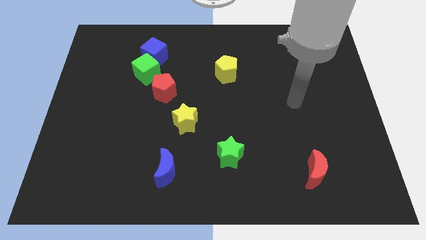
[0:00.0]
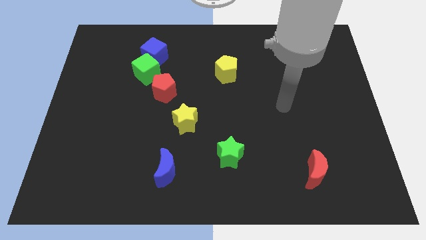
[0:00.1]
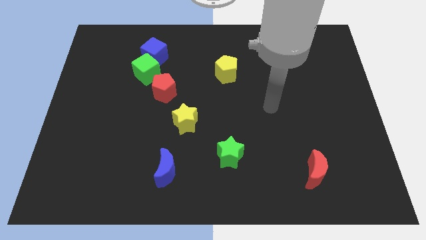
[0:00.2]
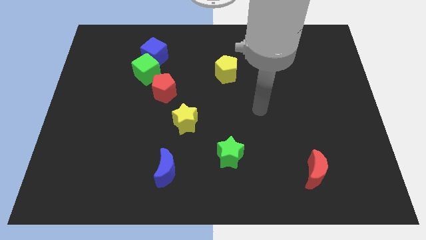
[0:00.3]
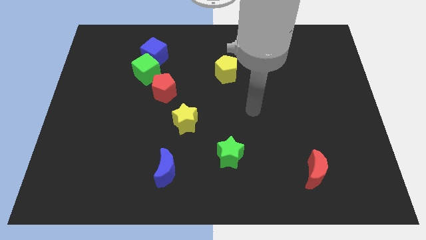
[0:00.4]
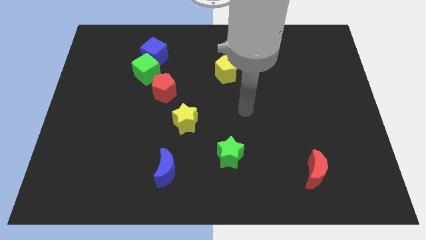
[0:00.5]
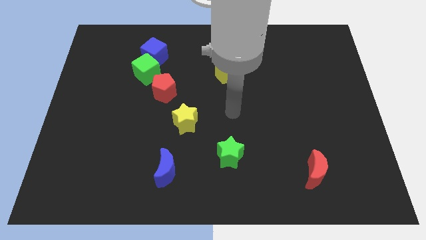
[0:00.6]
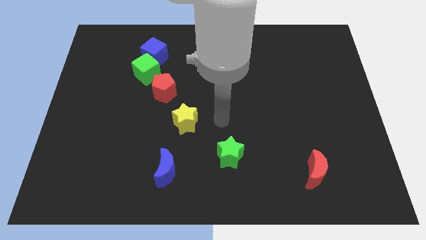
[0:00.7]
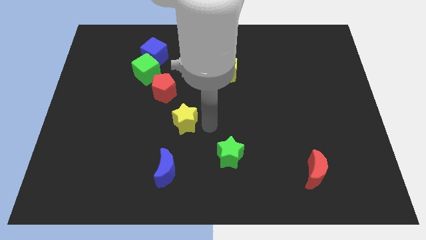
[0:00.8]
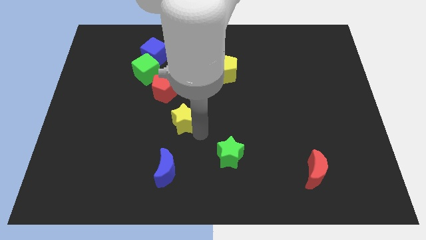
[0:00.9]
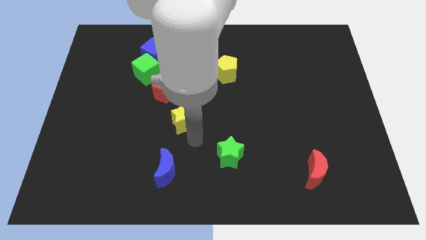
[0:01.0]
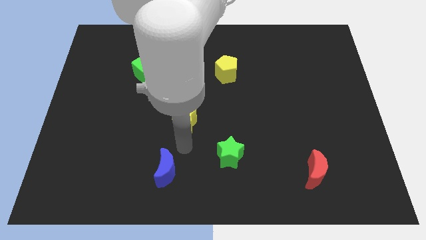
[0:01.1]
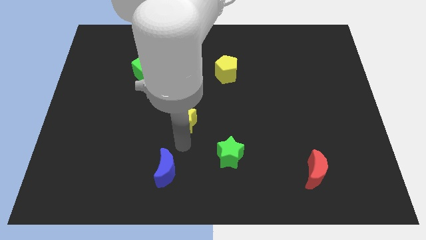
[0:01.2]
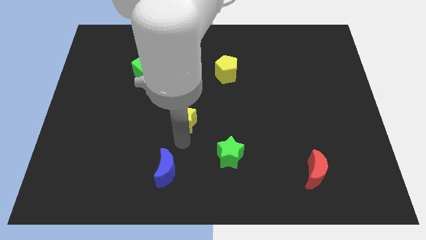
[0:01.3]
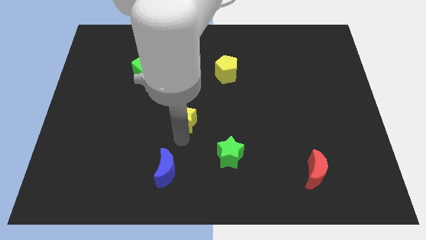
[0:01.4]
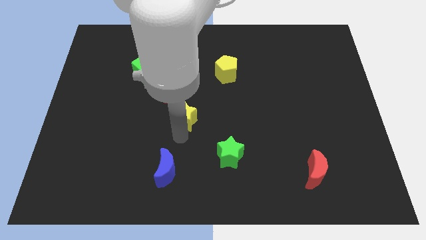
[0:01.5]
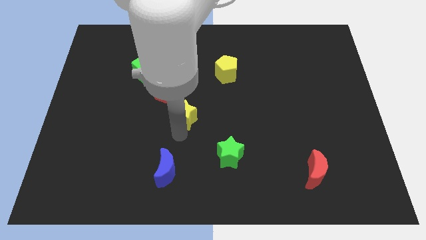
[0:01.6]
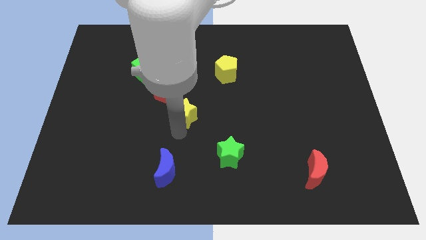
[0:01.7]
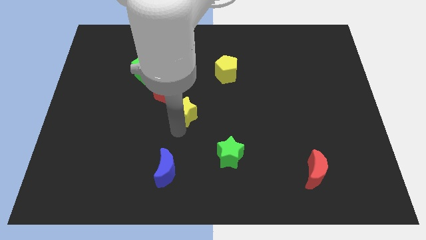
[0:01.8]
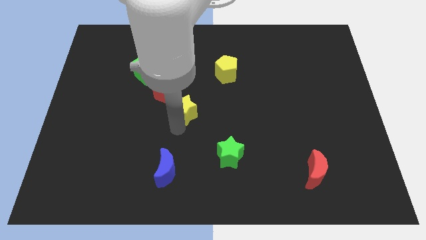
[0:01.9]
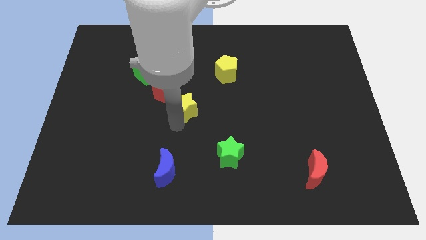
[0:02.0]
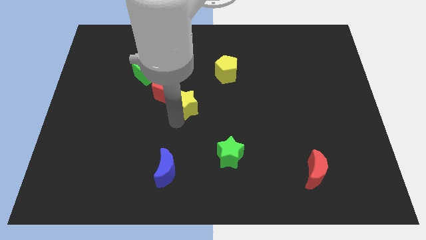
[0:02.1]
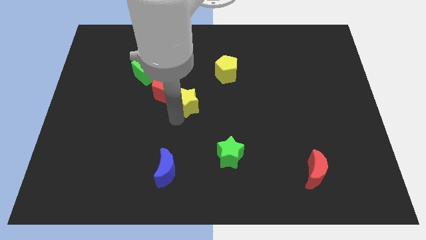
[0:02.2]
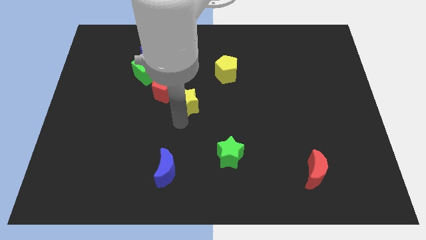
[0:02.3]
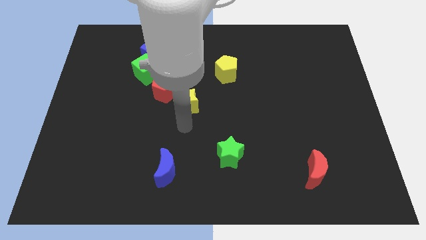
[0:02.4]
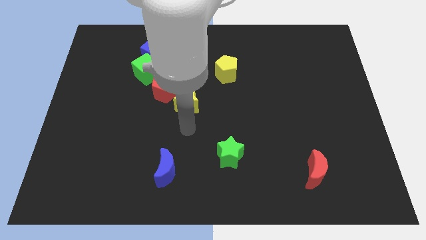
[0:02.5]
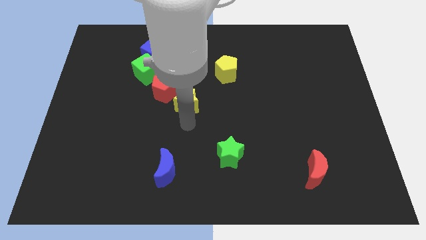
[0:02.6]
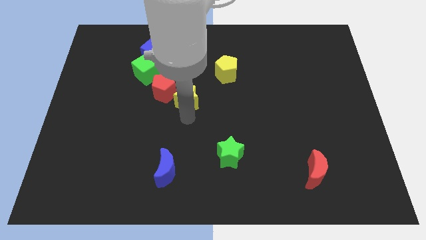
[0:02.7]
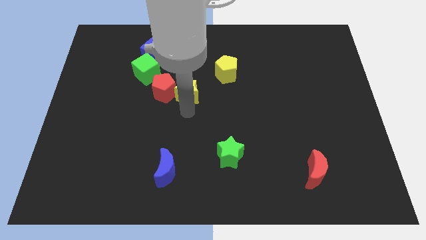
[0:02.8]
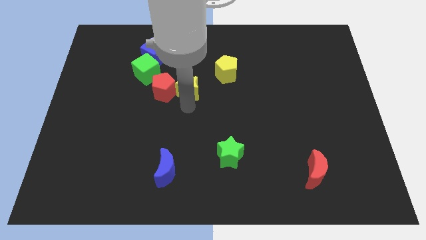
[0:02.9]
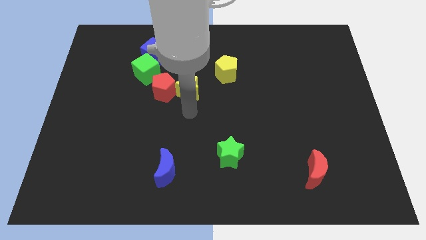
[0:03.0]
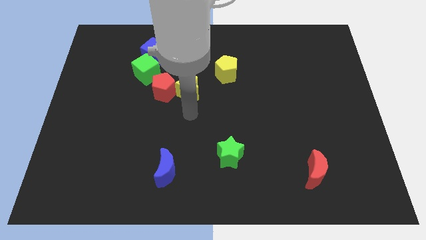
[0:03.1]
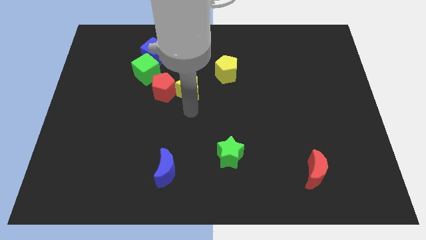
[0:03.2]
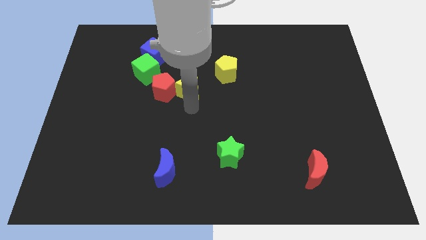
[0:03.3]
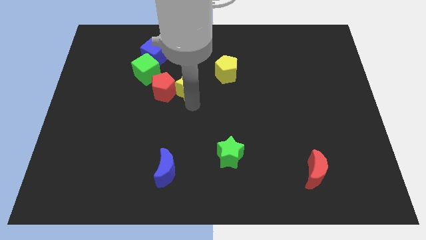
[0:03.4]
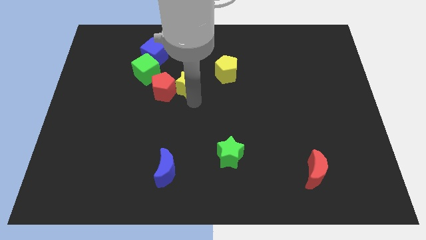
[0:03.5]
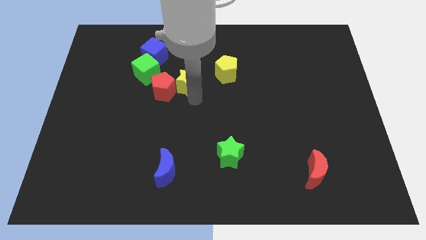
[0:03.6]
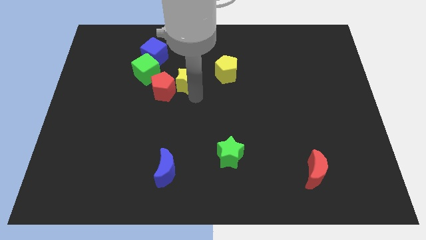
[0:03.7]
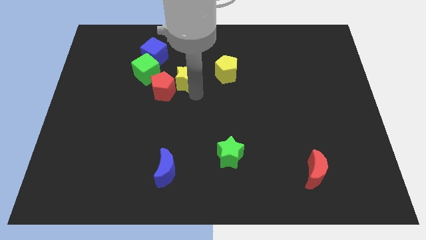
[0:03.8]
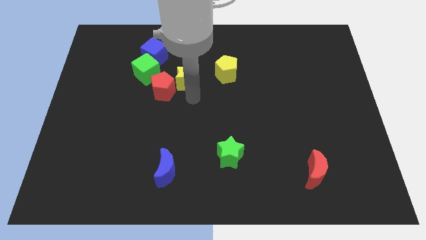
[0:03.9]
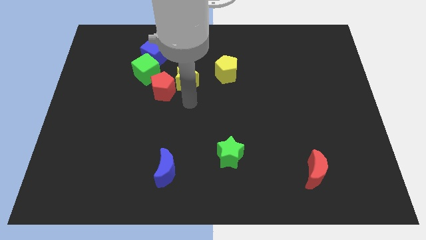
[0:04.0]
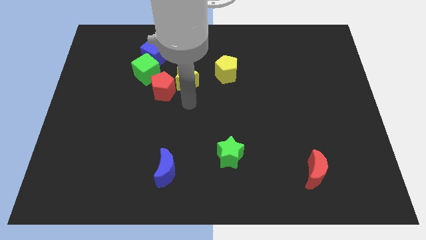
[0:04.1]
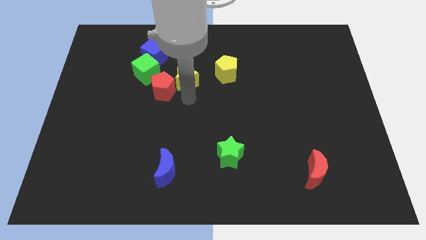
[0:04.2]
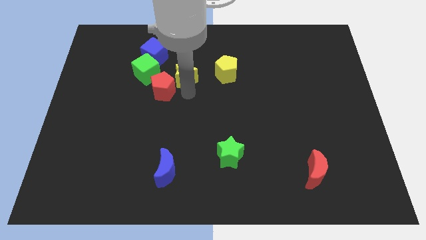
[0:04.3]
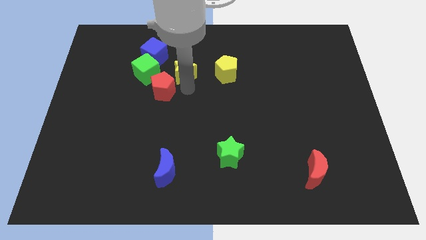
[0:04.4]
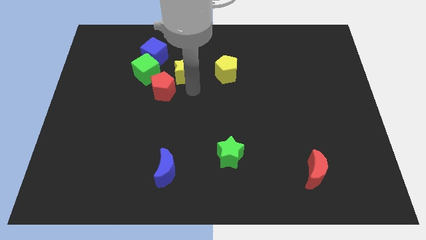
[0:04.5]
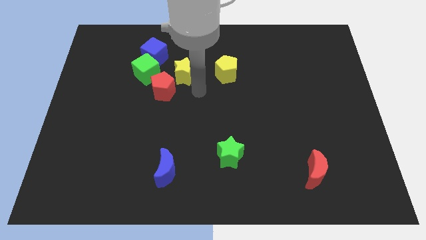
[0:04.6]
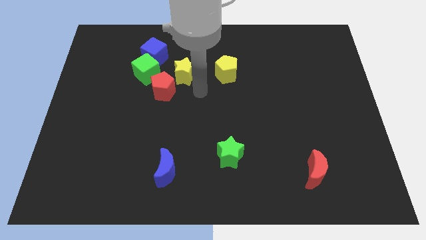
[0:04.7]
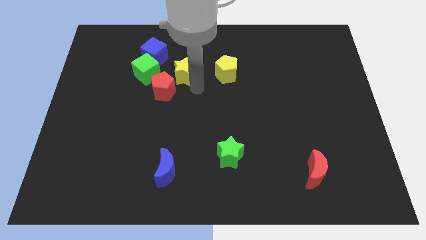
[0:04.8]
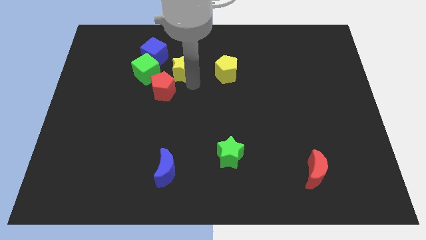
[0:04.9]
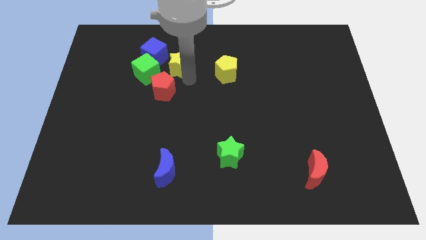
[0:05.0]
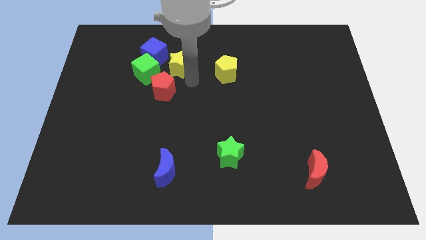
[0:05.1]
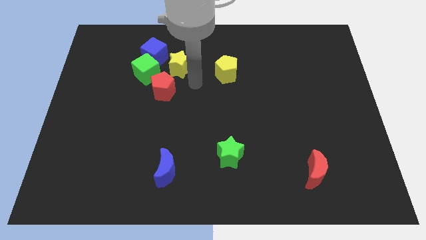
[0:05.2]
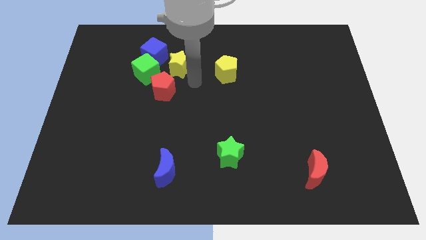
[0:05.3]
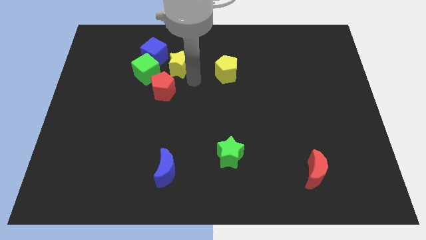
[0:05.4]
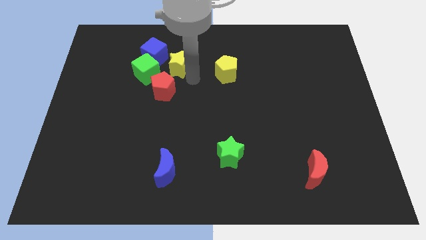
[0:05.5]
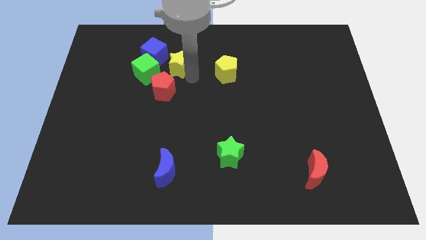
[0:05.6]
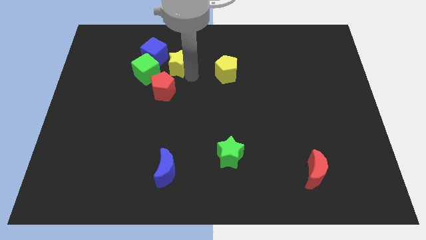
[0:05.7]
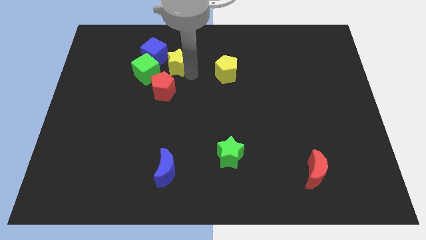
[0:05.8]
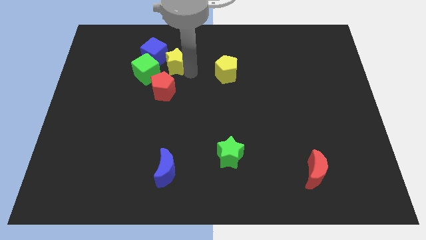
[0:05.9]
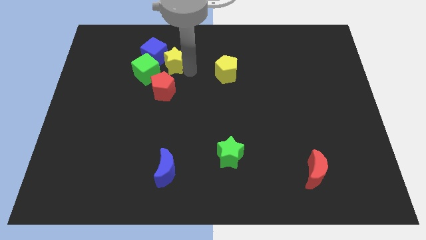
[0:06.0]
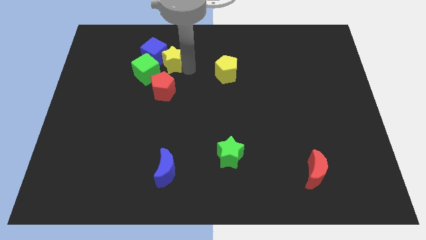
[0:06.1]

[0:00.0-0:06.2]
push the yellow star close to the blue cube

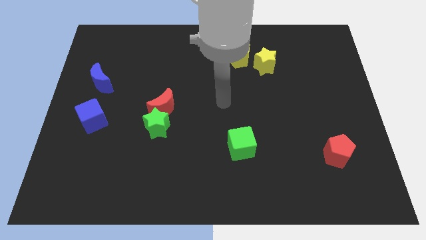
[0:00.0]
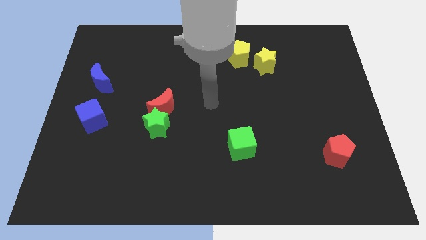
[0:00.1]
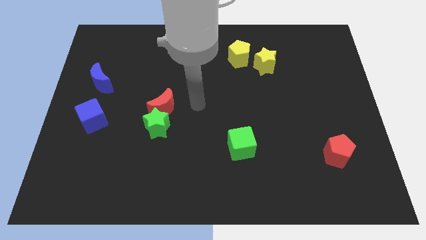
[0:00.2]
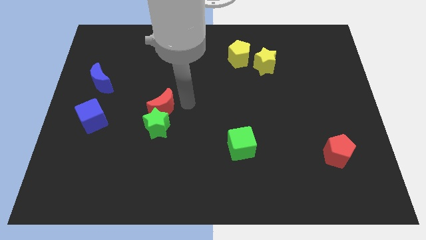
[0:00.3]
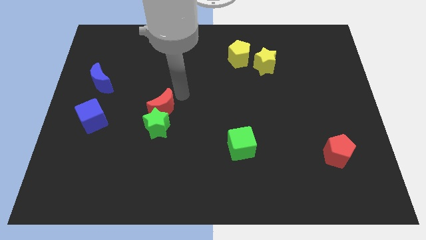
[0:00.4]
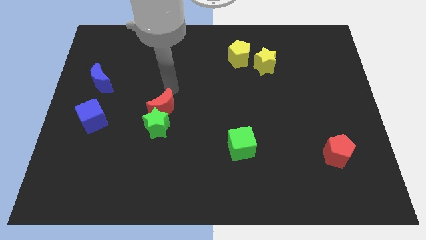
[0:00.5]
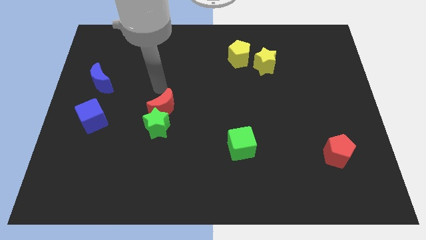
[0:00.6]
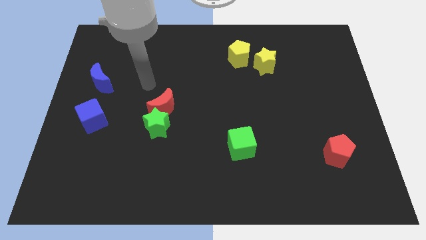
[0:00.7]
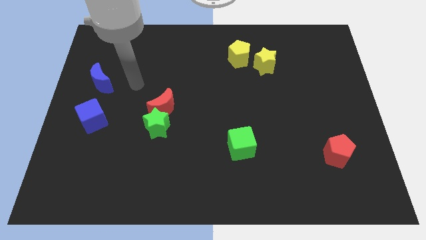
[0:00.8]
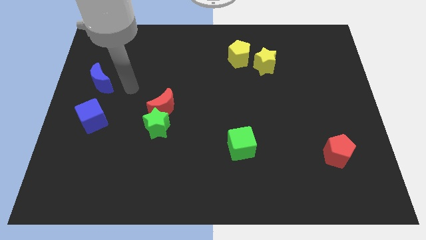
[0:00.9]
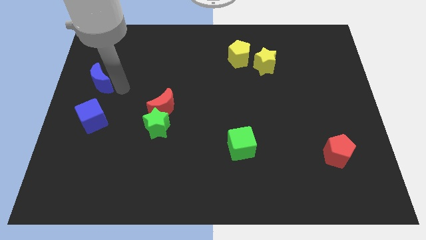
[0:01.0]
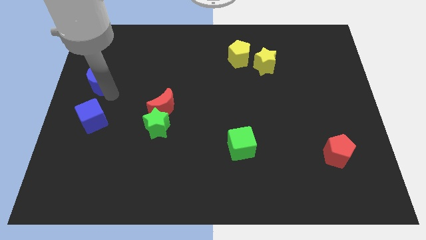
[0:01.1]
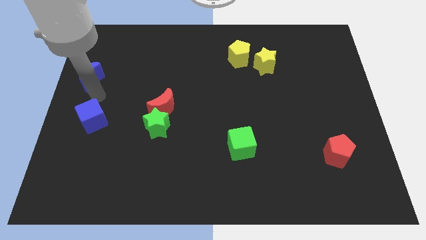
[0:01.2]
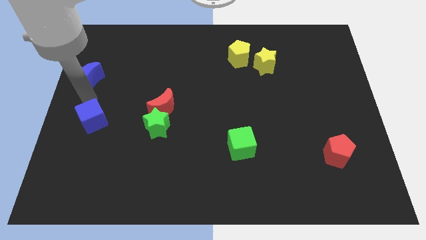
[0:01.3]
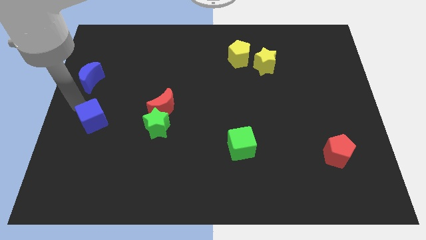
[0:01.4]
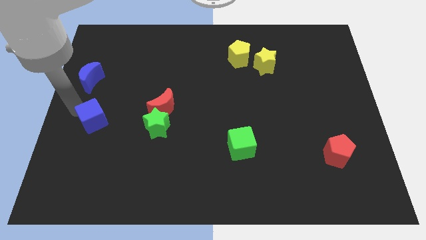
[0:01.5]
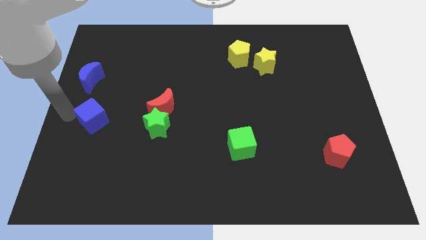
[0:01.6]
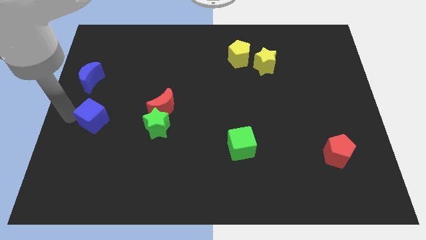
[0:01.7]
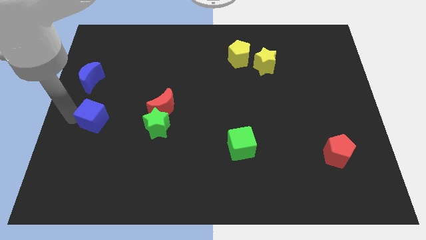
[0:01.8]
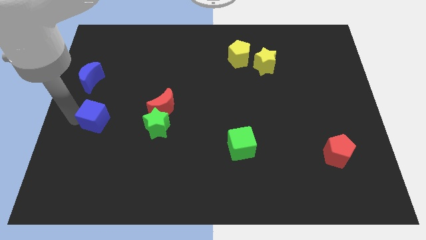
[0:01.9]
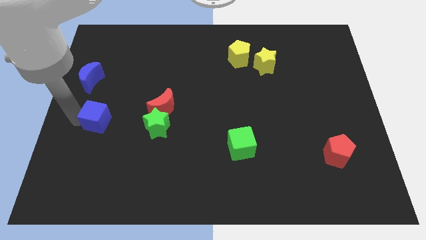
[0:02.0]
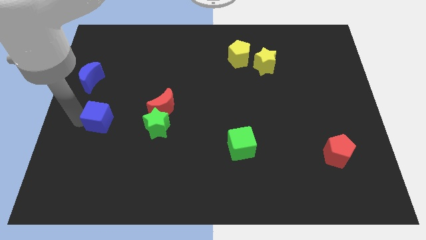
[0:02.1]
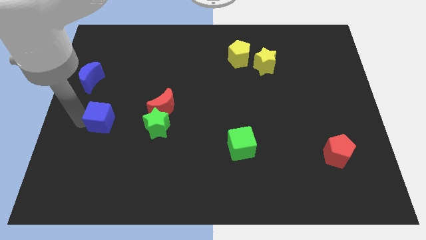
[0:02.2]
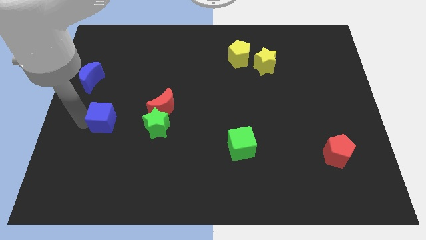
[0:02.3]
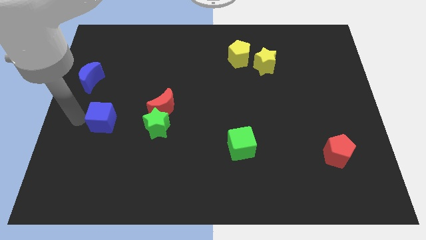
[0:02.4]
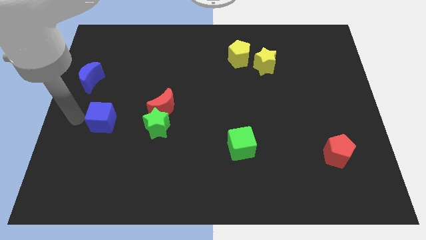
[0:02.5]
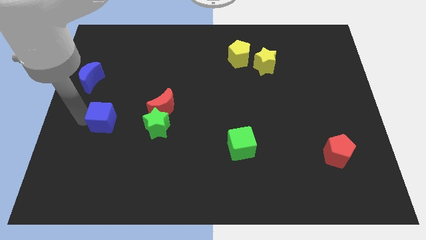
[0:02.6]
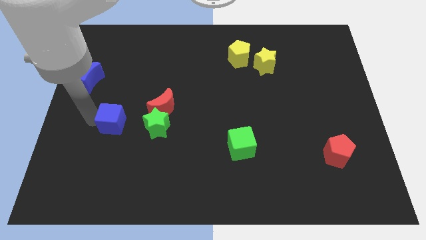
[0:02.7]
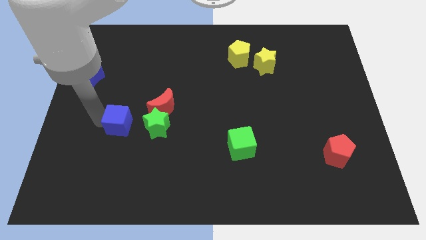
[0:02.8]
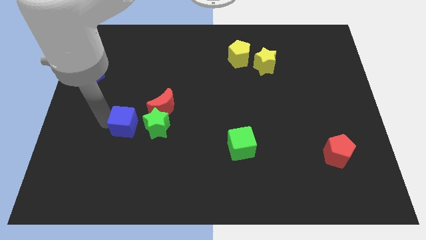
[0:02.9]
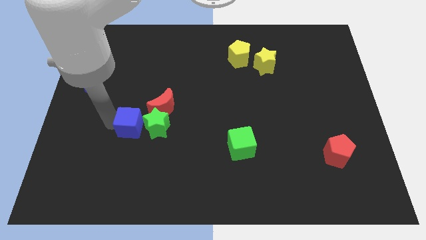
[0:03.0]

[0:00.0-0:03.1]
put the blue cube to the green star
